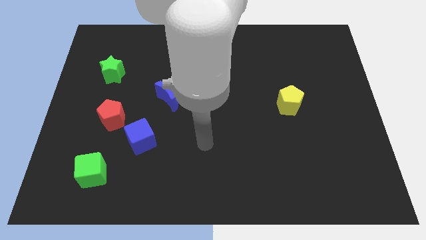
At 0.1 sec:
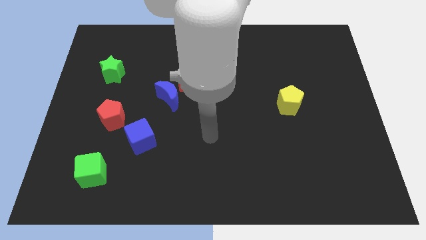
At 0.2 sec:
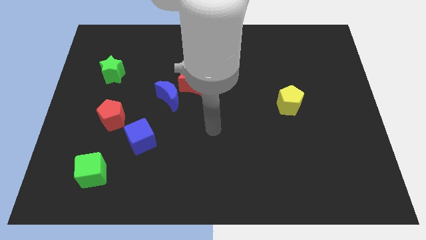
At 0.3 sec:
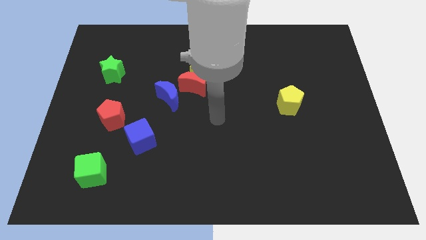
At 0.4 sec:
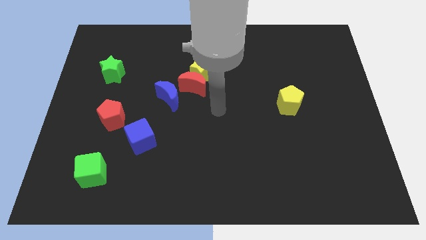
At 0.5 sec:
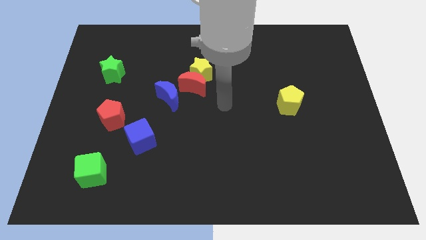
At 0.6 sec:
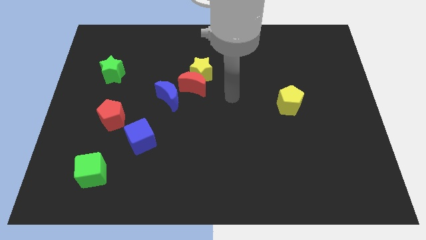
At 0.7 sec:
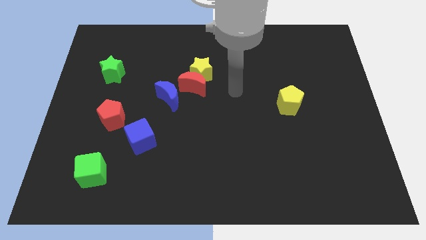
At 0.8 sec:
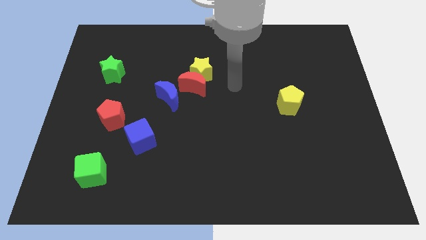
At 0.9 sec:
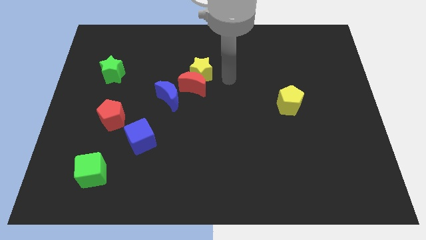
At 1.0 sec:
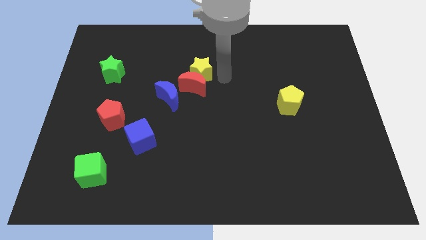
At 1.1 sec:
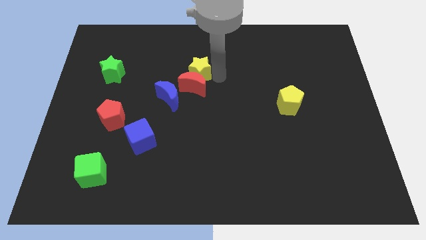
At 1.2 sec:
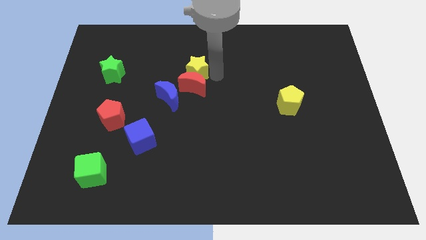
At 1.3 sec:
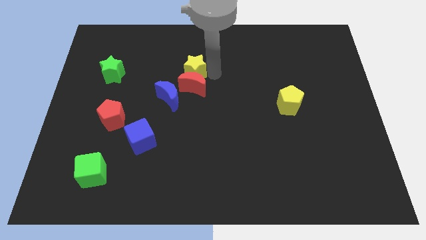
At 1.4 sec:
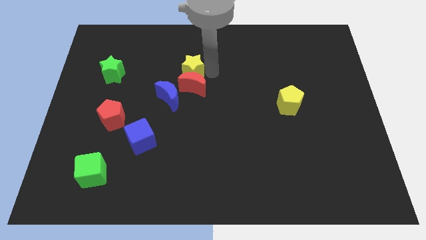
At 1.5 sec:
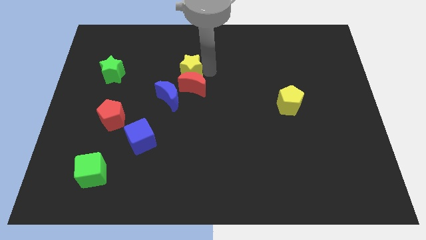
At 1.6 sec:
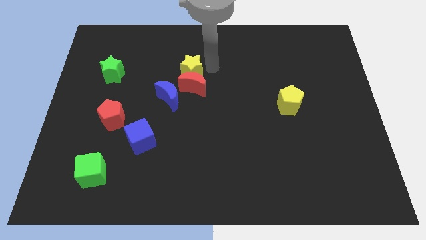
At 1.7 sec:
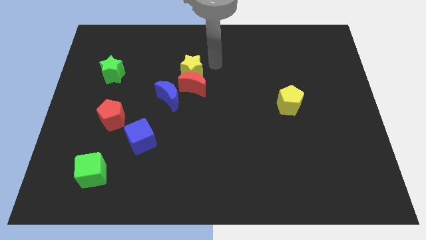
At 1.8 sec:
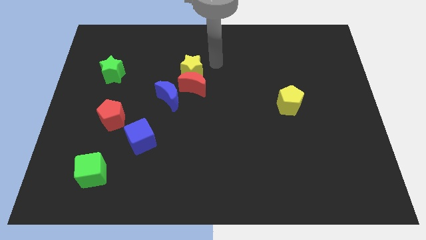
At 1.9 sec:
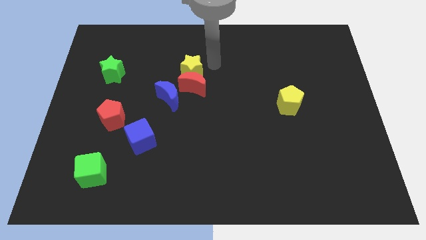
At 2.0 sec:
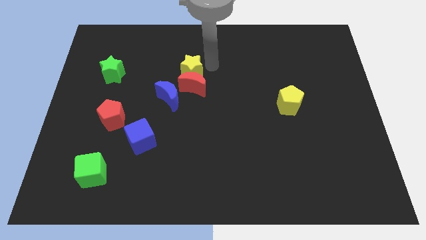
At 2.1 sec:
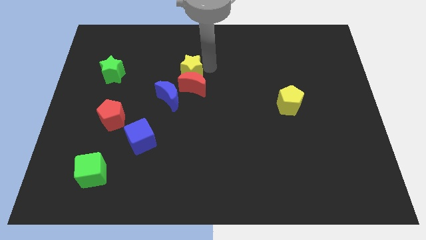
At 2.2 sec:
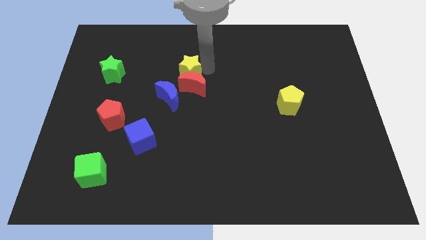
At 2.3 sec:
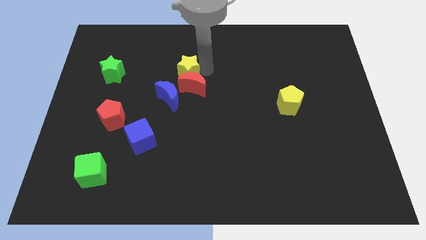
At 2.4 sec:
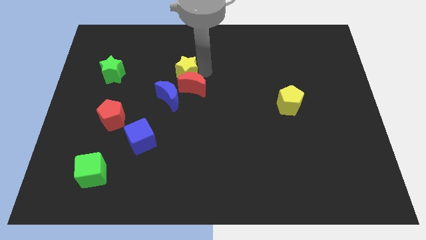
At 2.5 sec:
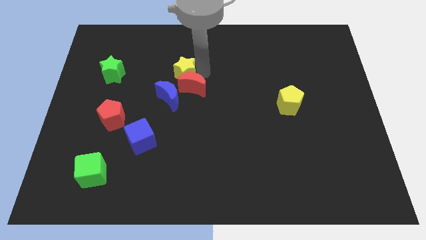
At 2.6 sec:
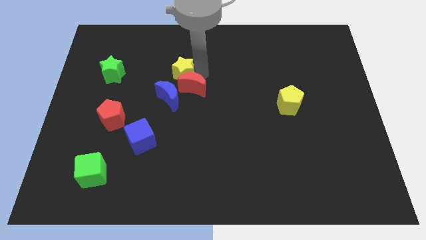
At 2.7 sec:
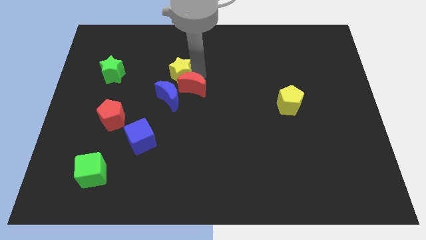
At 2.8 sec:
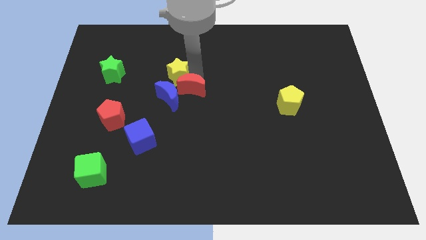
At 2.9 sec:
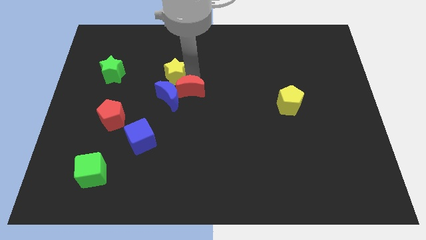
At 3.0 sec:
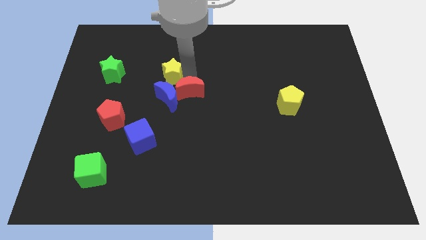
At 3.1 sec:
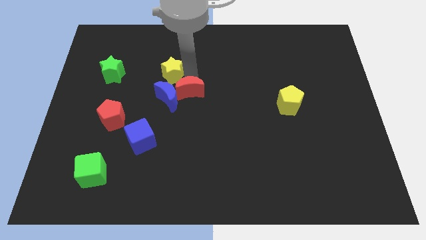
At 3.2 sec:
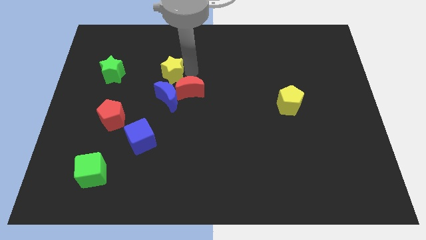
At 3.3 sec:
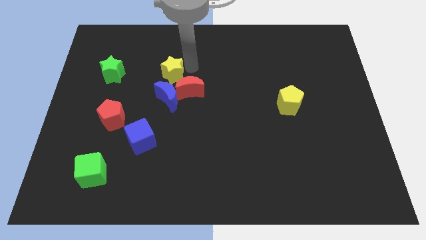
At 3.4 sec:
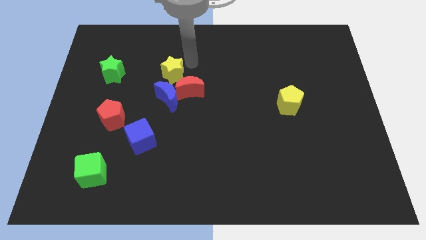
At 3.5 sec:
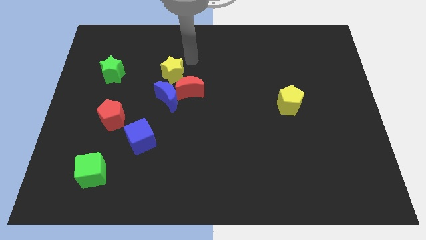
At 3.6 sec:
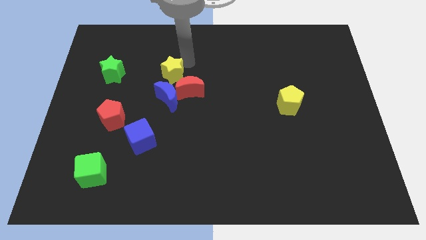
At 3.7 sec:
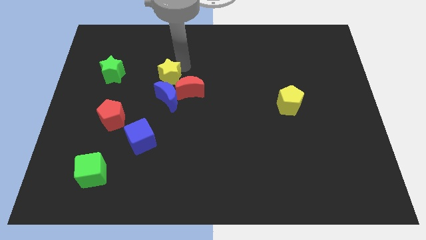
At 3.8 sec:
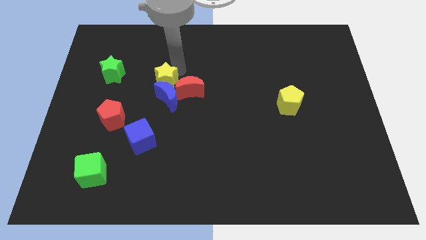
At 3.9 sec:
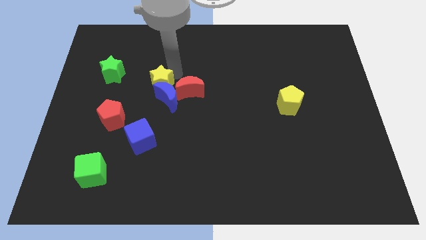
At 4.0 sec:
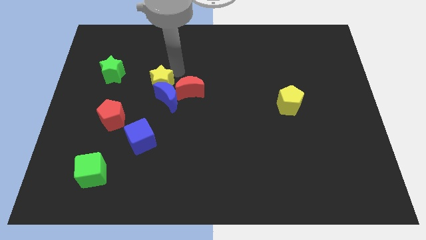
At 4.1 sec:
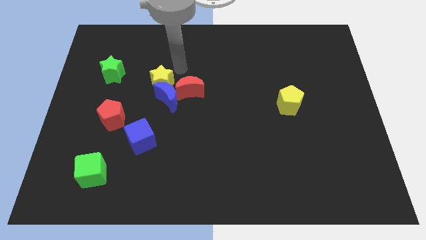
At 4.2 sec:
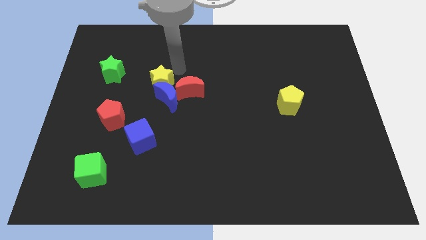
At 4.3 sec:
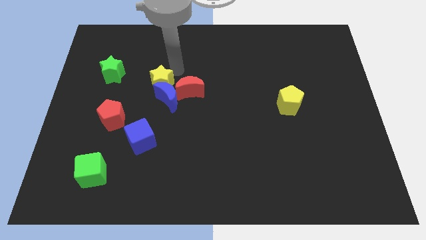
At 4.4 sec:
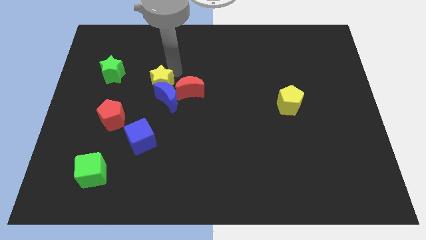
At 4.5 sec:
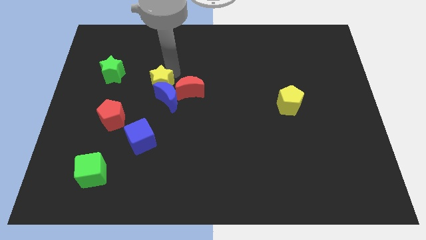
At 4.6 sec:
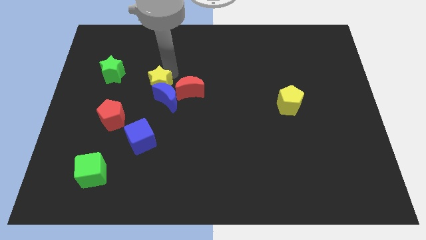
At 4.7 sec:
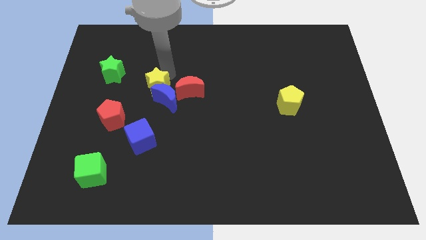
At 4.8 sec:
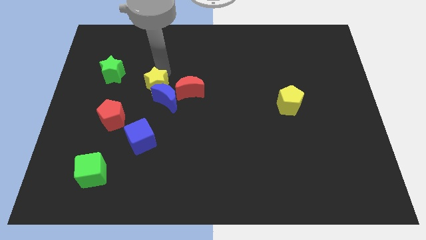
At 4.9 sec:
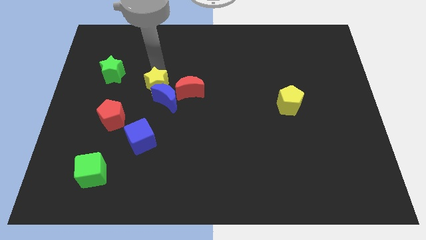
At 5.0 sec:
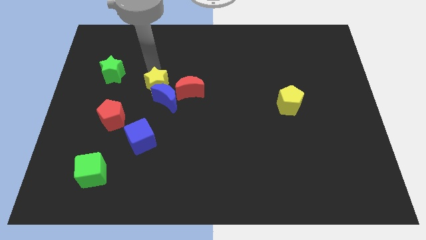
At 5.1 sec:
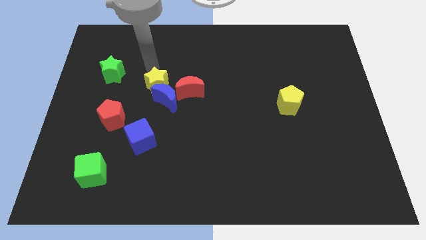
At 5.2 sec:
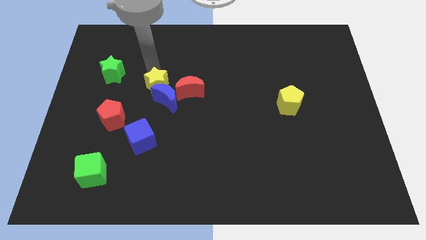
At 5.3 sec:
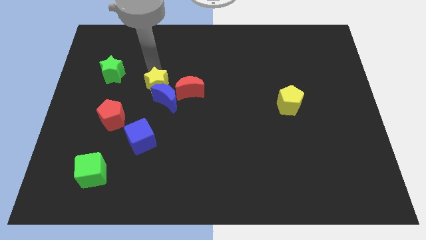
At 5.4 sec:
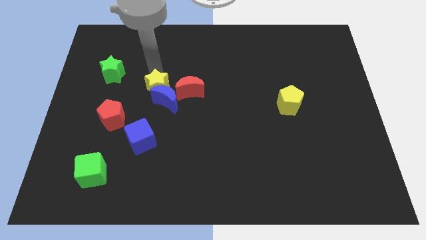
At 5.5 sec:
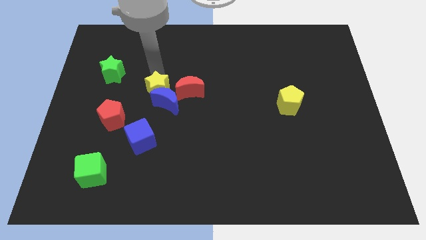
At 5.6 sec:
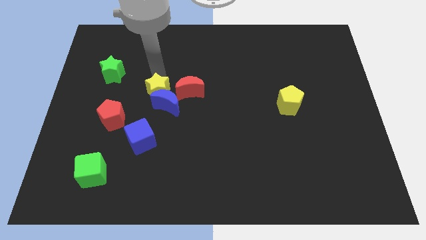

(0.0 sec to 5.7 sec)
put the yellow star to the bottom left side of the red moon

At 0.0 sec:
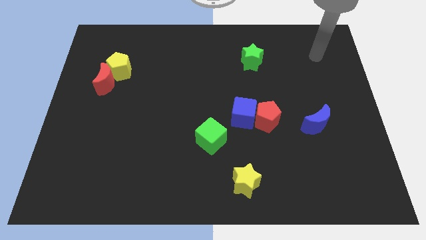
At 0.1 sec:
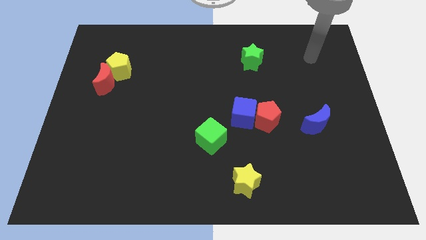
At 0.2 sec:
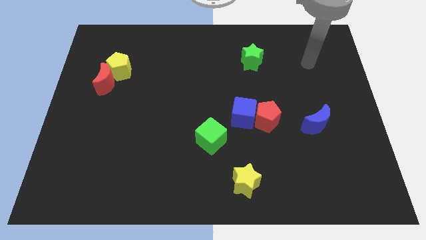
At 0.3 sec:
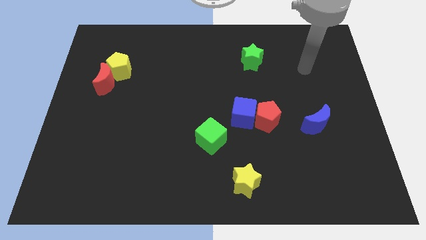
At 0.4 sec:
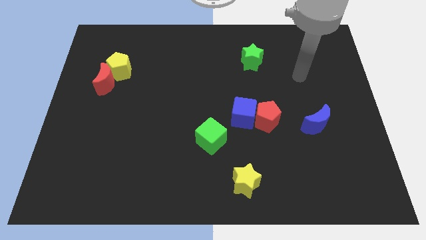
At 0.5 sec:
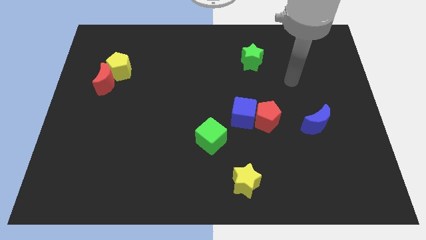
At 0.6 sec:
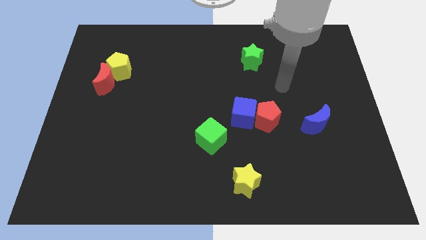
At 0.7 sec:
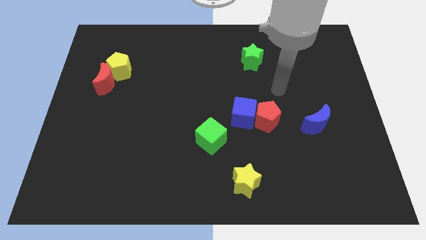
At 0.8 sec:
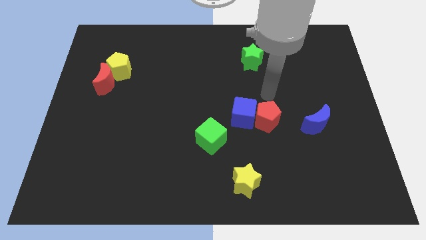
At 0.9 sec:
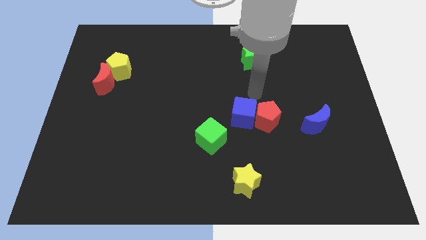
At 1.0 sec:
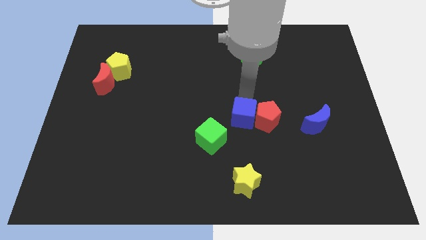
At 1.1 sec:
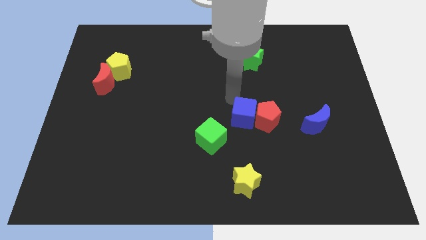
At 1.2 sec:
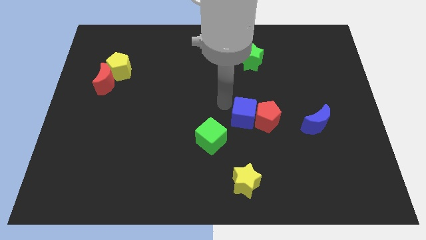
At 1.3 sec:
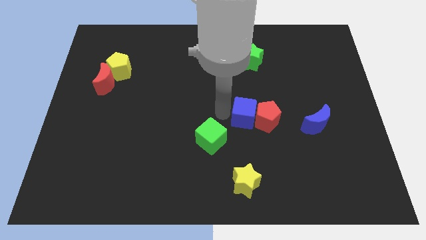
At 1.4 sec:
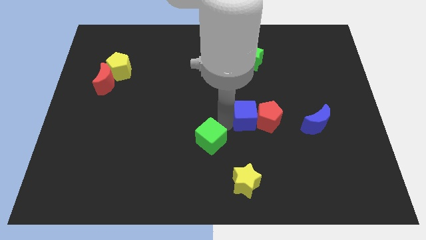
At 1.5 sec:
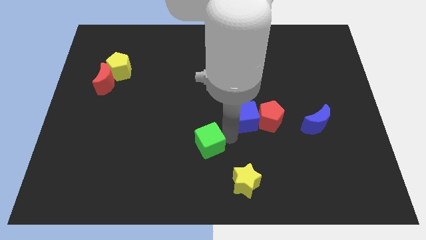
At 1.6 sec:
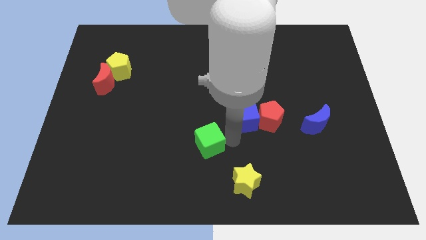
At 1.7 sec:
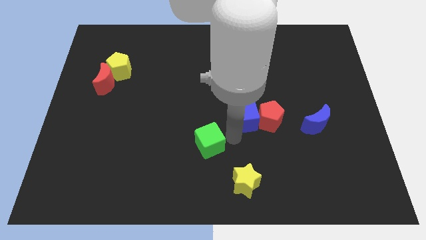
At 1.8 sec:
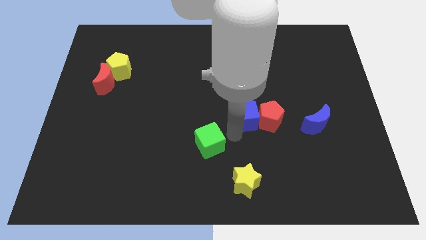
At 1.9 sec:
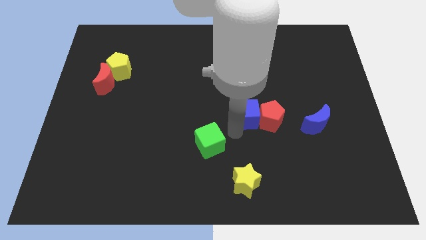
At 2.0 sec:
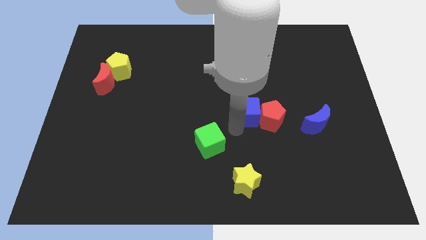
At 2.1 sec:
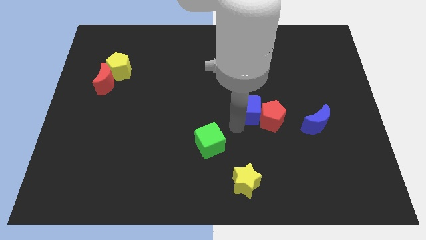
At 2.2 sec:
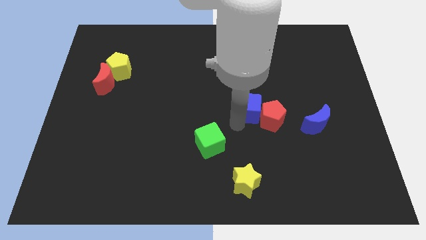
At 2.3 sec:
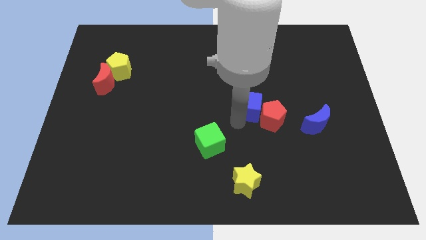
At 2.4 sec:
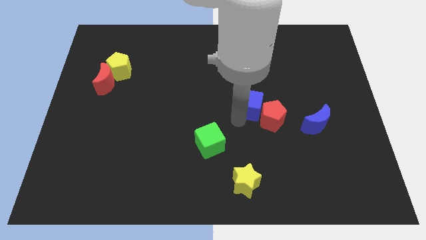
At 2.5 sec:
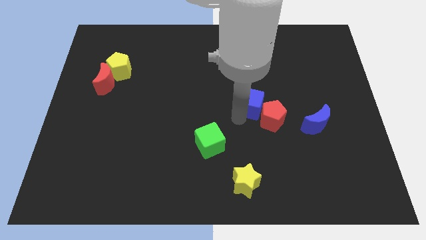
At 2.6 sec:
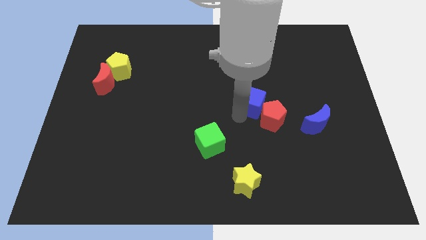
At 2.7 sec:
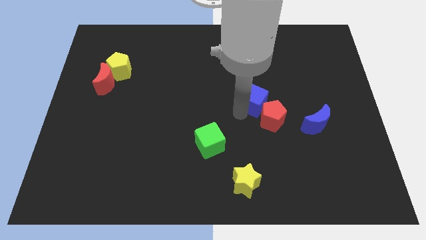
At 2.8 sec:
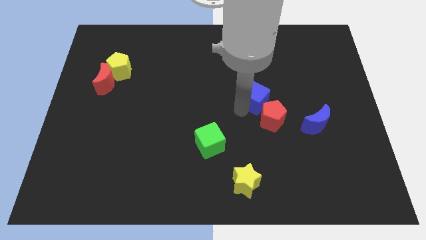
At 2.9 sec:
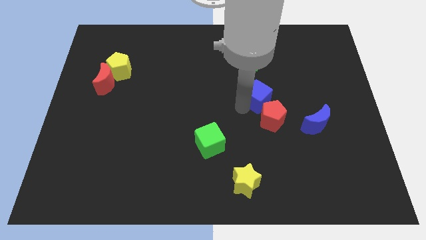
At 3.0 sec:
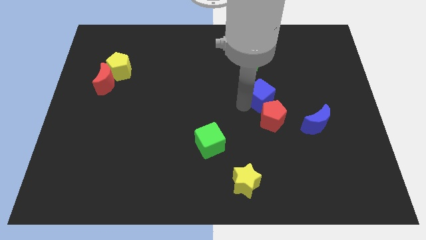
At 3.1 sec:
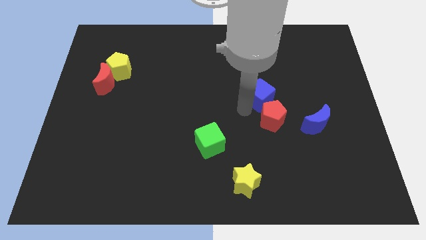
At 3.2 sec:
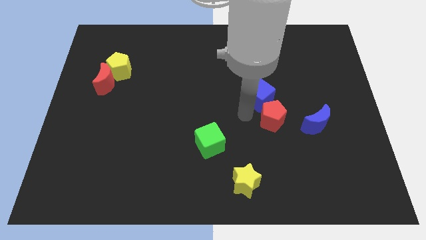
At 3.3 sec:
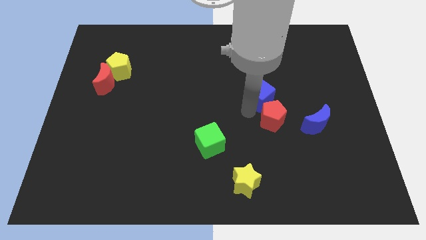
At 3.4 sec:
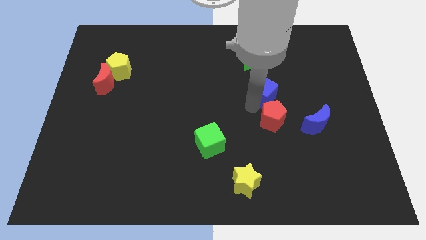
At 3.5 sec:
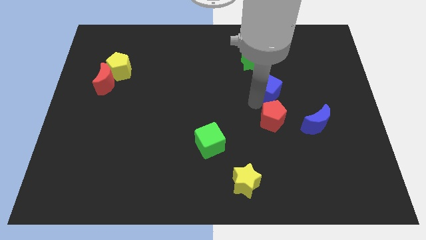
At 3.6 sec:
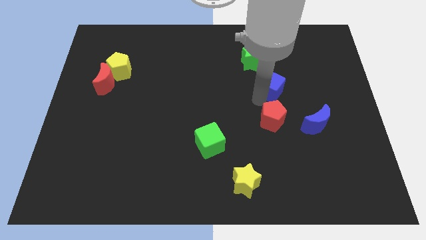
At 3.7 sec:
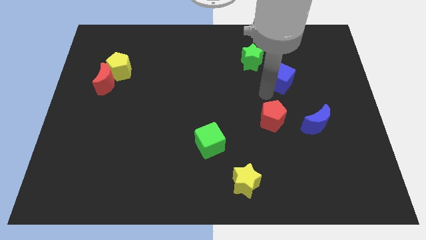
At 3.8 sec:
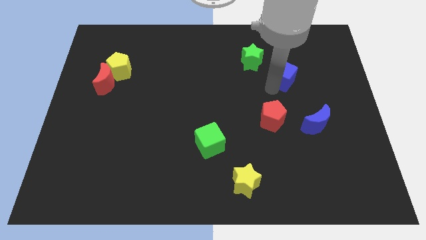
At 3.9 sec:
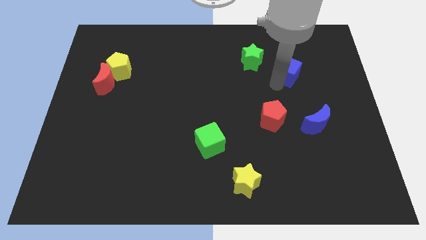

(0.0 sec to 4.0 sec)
put the blue cube just right of the green star
